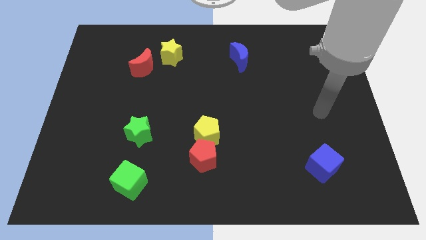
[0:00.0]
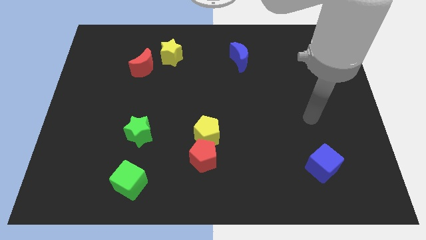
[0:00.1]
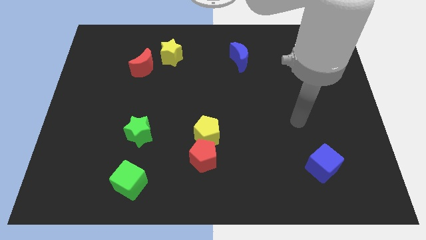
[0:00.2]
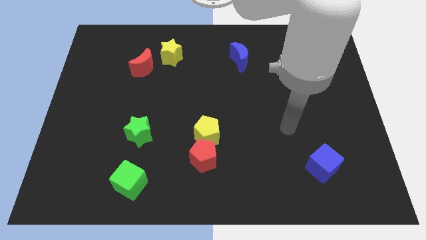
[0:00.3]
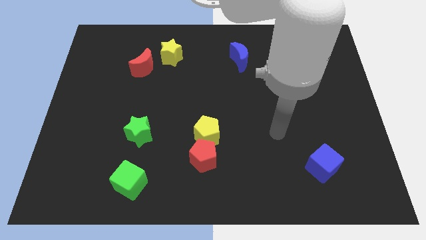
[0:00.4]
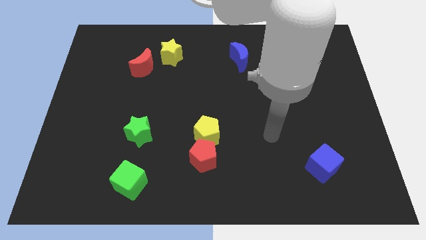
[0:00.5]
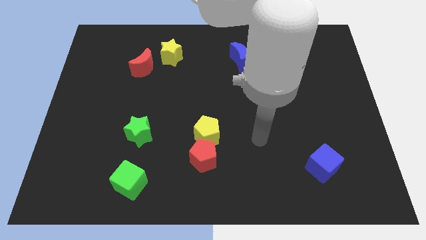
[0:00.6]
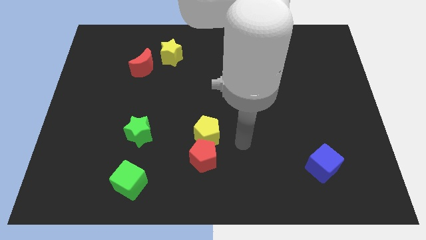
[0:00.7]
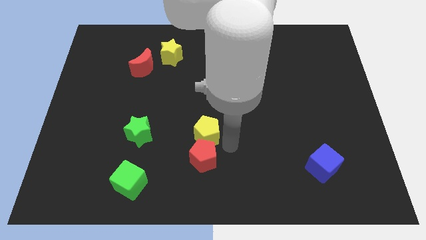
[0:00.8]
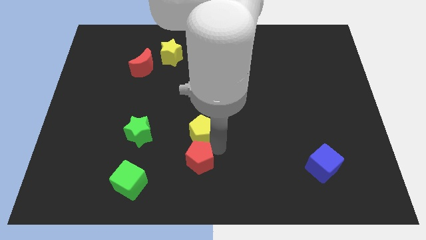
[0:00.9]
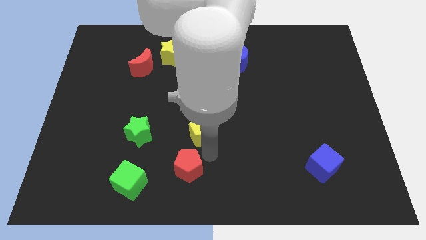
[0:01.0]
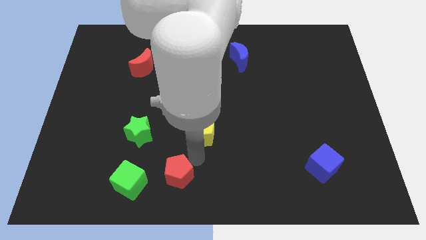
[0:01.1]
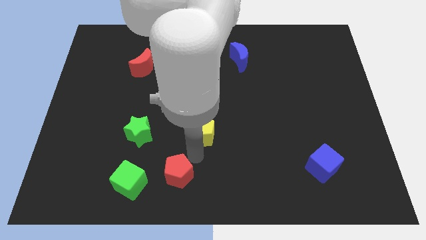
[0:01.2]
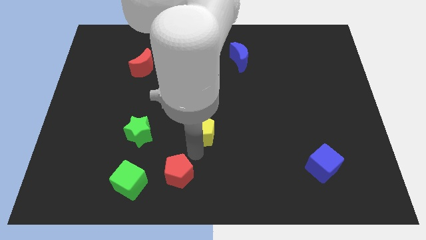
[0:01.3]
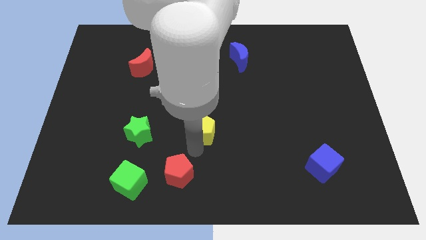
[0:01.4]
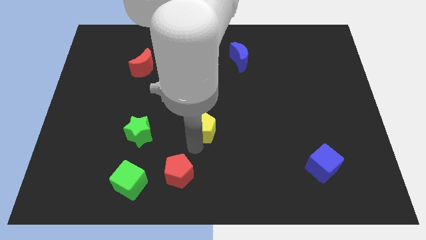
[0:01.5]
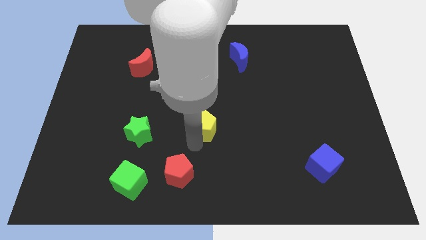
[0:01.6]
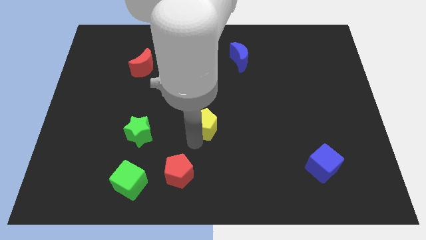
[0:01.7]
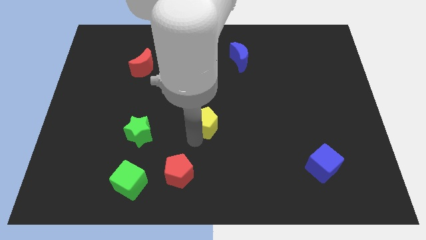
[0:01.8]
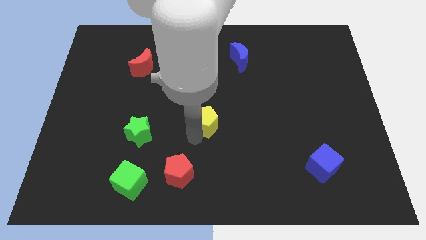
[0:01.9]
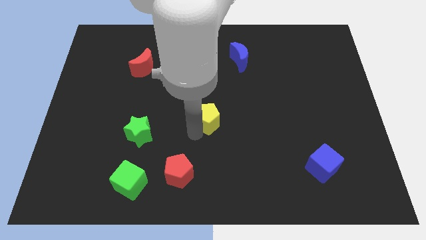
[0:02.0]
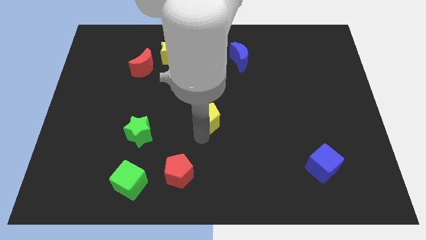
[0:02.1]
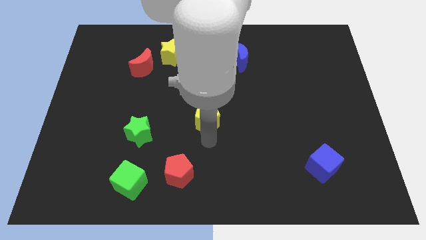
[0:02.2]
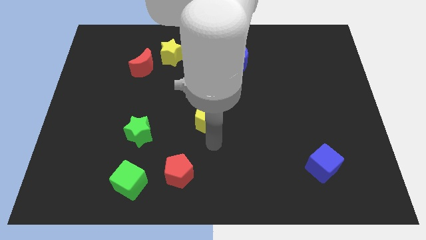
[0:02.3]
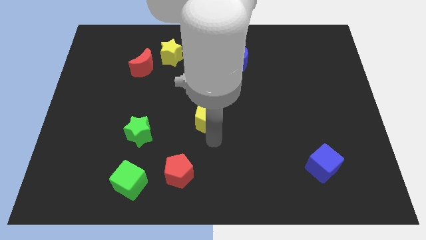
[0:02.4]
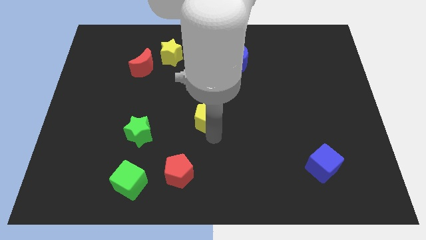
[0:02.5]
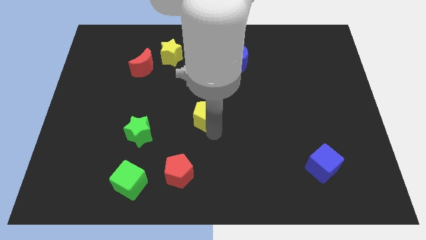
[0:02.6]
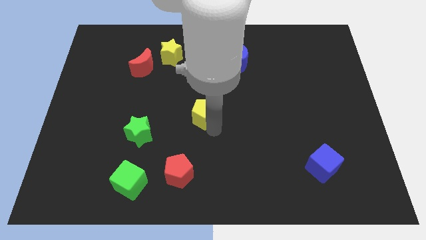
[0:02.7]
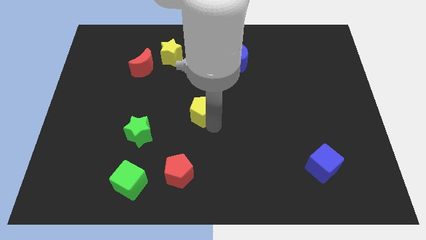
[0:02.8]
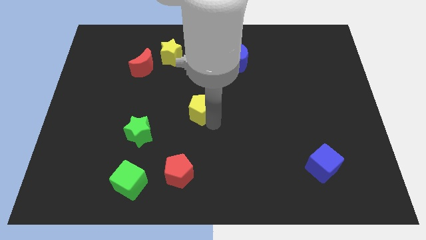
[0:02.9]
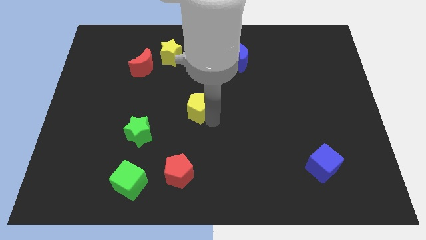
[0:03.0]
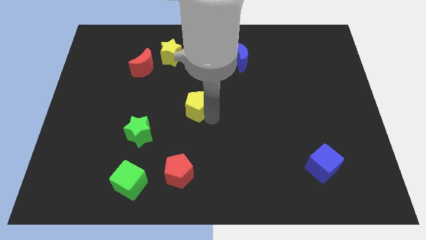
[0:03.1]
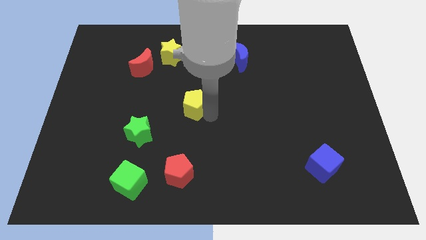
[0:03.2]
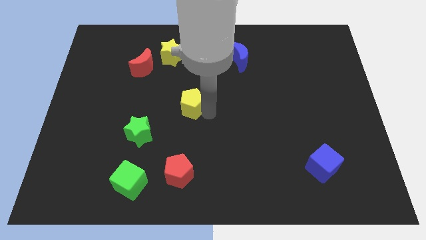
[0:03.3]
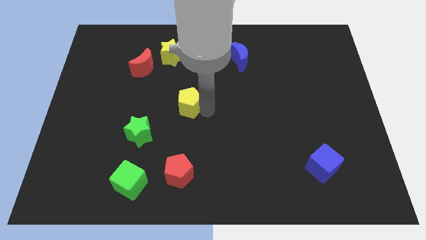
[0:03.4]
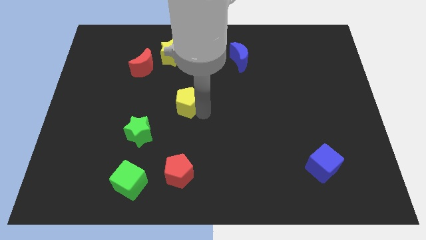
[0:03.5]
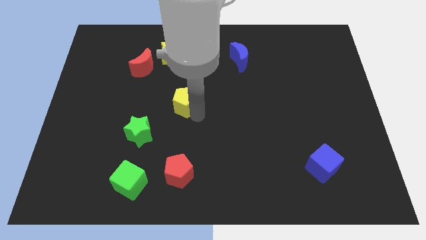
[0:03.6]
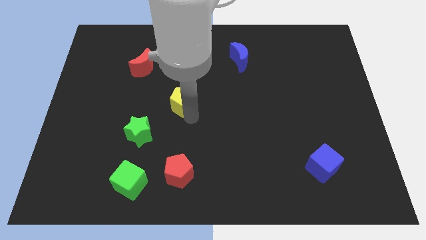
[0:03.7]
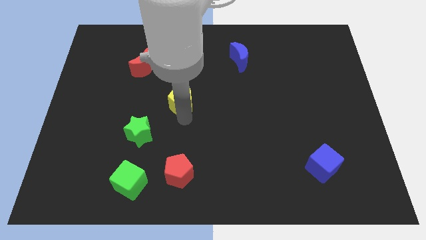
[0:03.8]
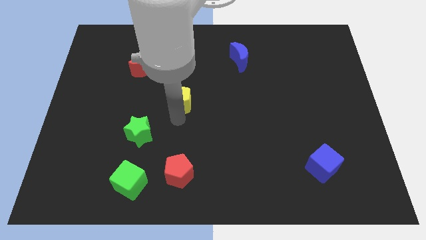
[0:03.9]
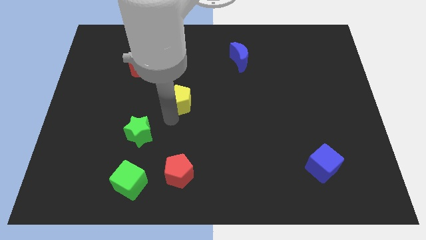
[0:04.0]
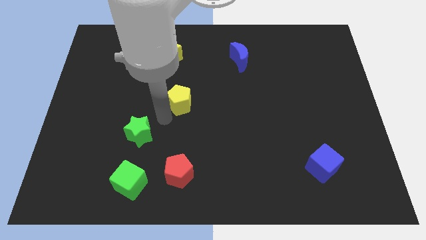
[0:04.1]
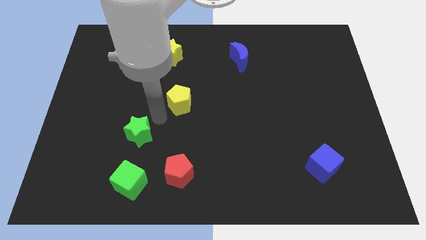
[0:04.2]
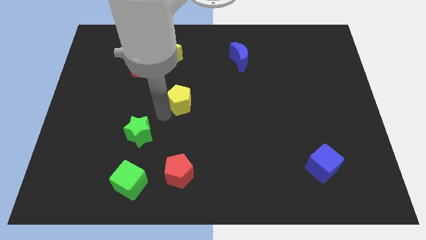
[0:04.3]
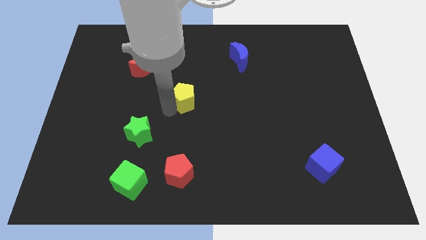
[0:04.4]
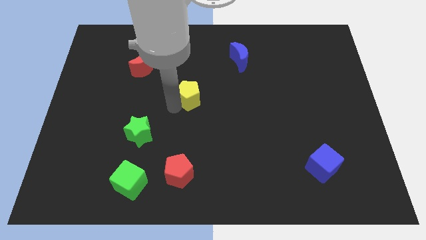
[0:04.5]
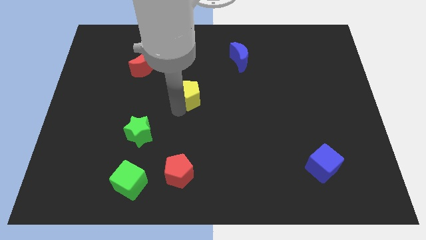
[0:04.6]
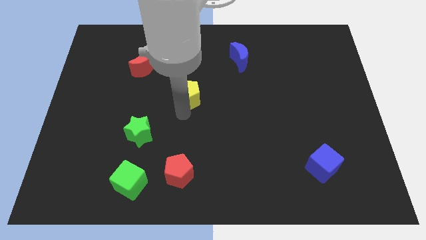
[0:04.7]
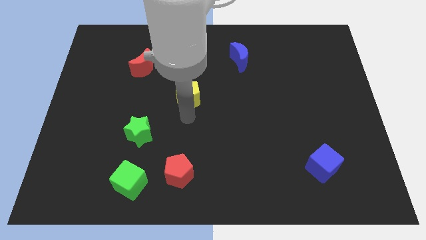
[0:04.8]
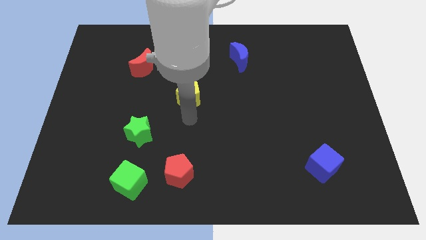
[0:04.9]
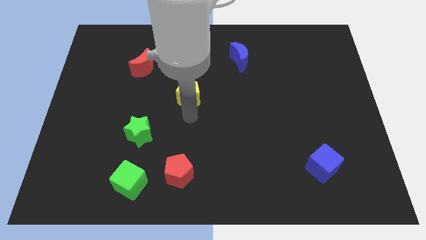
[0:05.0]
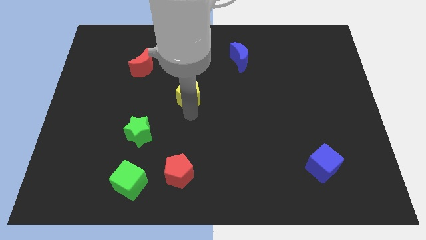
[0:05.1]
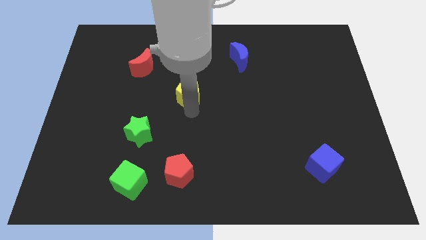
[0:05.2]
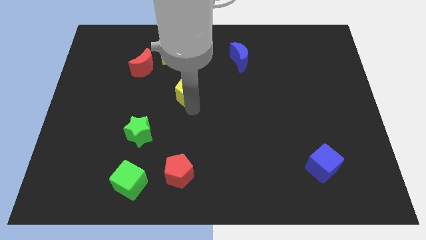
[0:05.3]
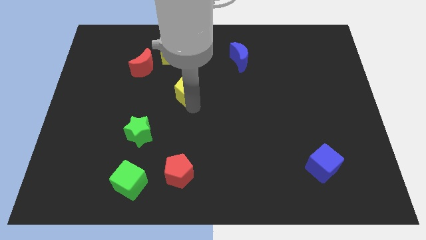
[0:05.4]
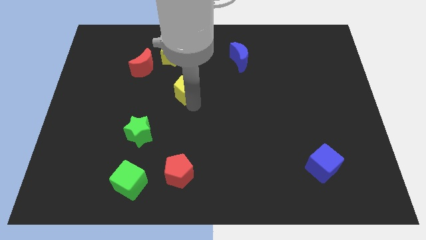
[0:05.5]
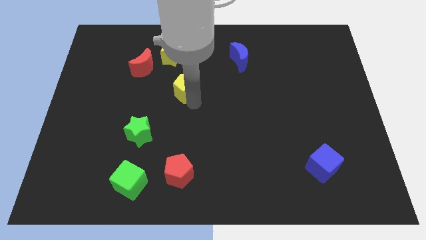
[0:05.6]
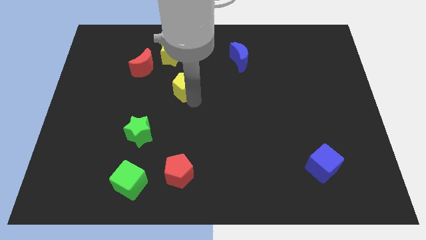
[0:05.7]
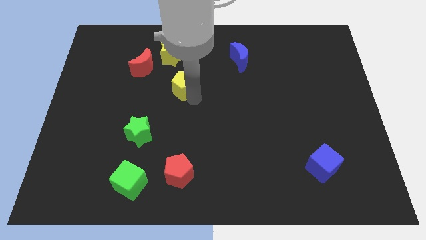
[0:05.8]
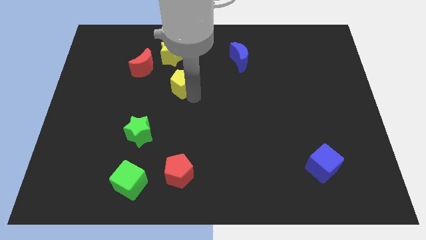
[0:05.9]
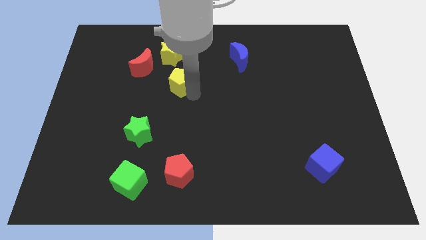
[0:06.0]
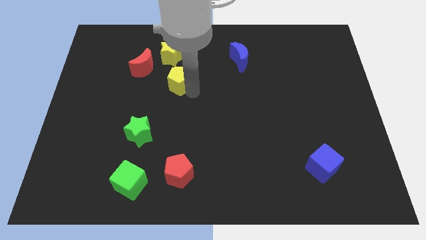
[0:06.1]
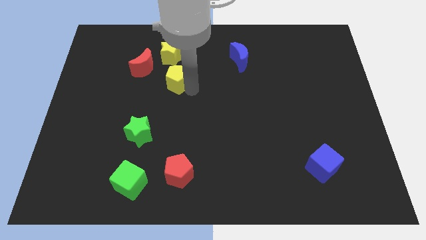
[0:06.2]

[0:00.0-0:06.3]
slide the yellow pentagon to the right of the red moon

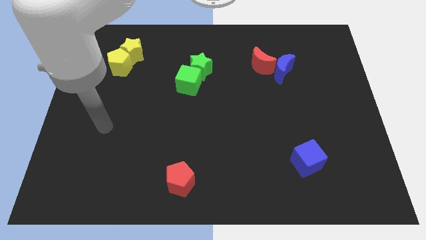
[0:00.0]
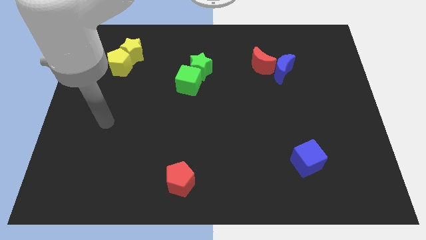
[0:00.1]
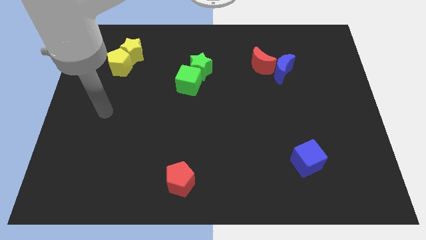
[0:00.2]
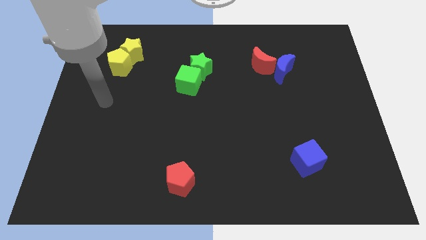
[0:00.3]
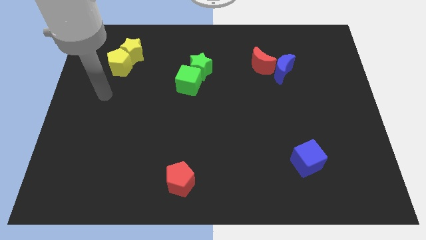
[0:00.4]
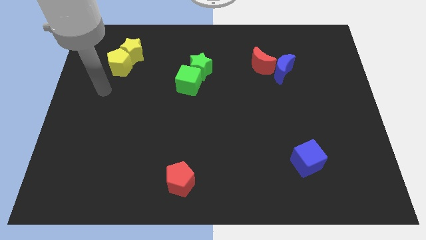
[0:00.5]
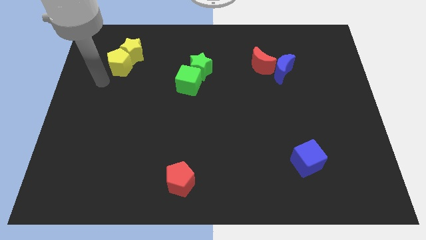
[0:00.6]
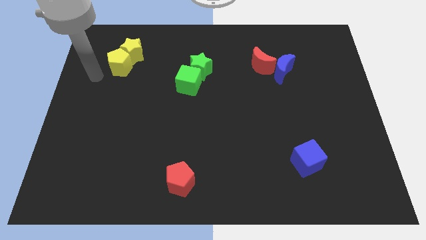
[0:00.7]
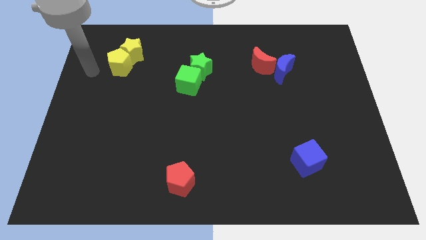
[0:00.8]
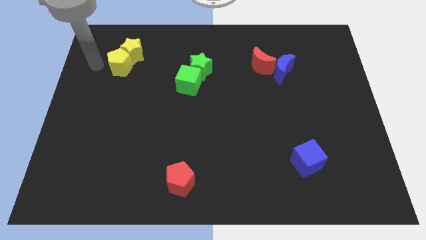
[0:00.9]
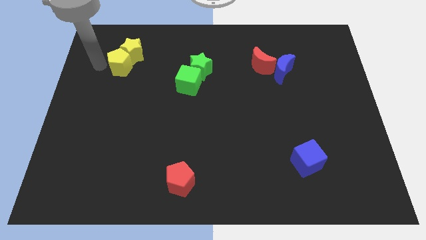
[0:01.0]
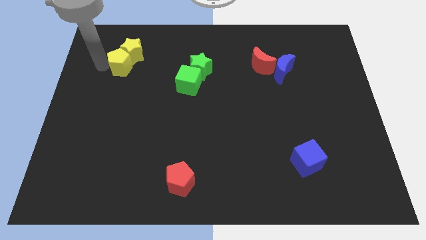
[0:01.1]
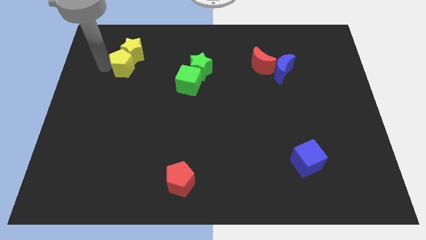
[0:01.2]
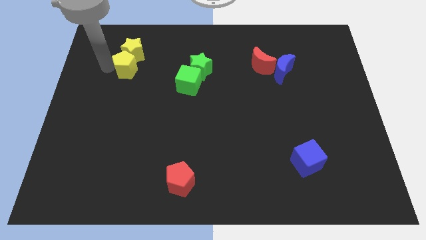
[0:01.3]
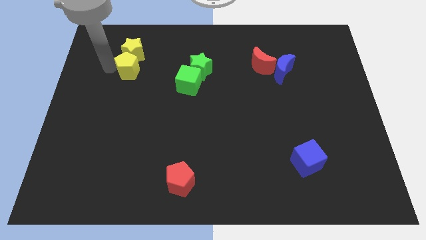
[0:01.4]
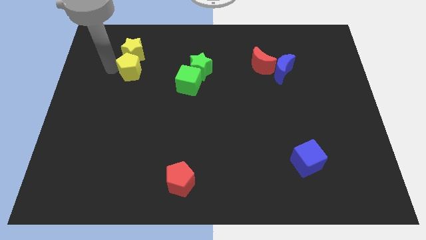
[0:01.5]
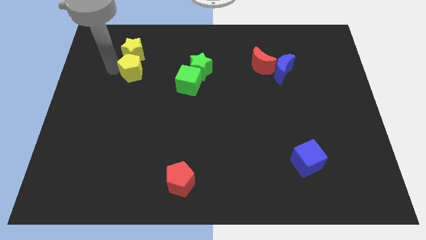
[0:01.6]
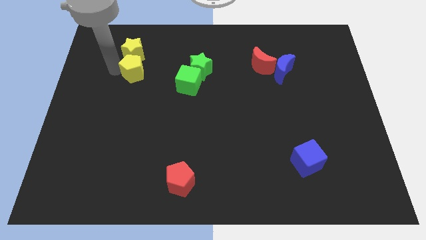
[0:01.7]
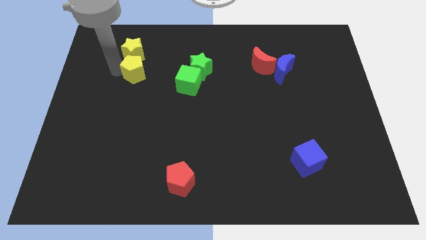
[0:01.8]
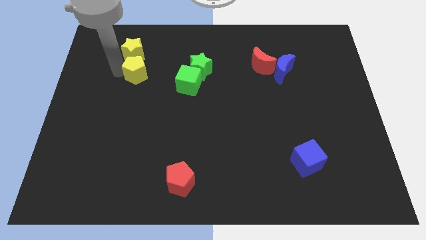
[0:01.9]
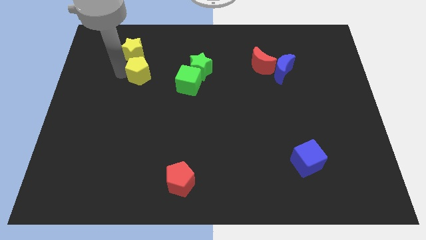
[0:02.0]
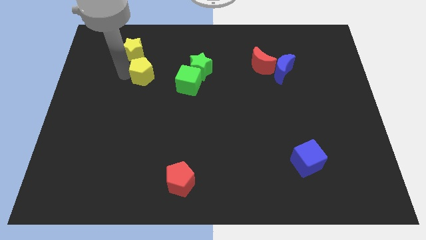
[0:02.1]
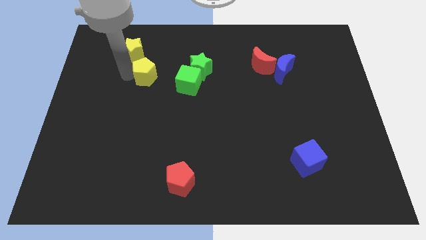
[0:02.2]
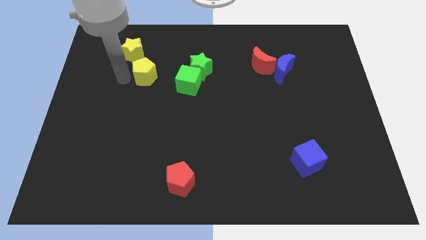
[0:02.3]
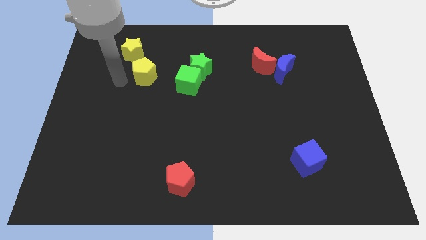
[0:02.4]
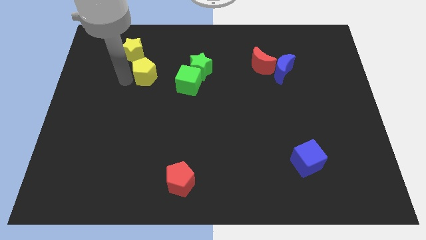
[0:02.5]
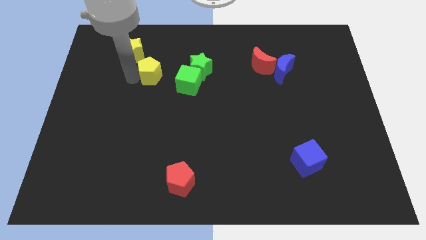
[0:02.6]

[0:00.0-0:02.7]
put the yellow pentagon diagonally up and to the left of the green cube
